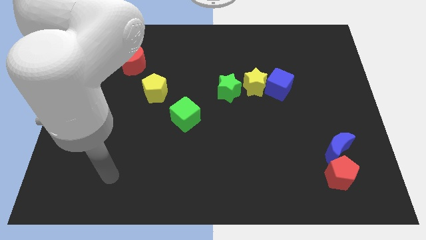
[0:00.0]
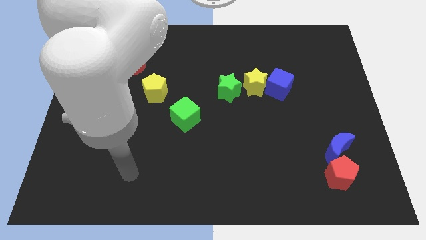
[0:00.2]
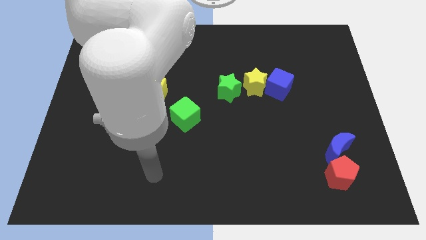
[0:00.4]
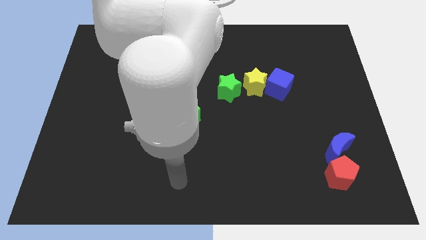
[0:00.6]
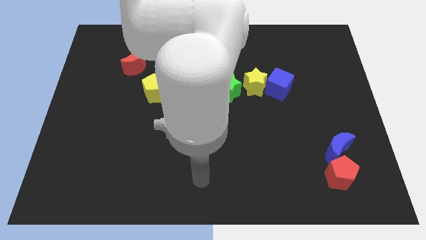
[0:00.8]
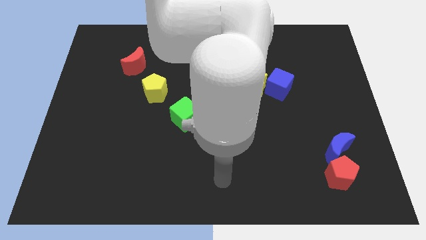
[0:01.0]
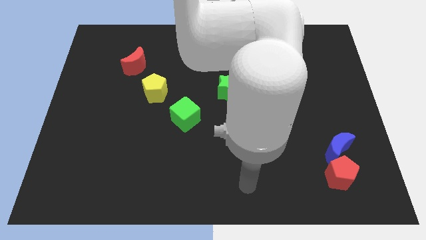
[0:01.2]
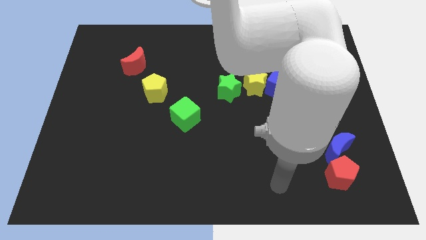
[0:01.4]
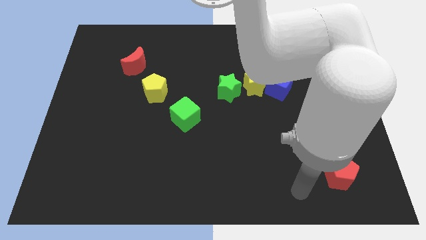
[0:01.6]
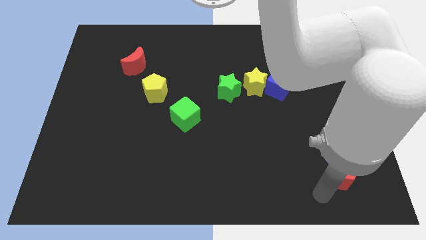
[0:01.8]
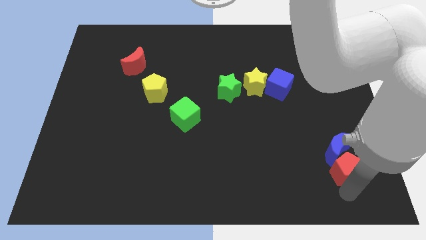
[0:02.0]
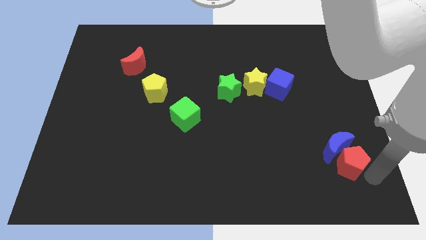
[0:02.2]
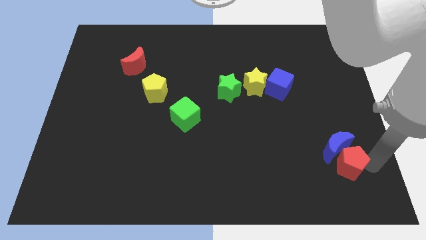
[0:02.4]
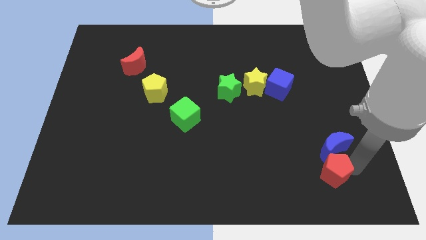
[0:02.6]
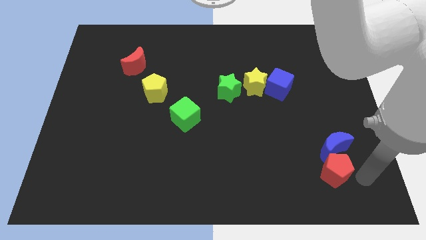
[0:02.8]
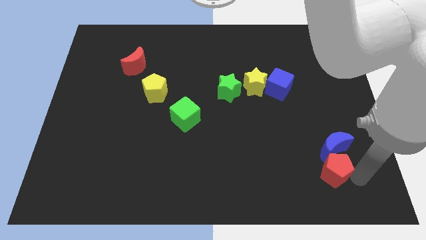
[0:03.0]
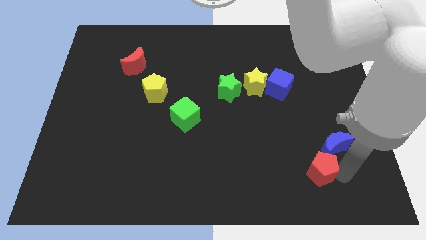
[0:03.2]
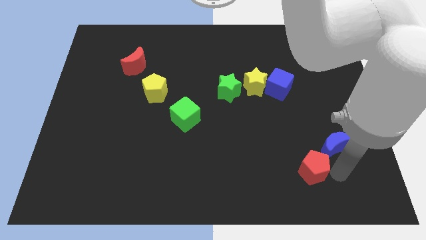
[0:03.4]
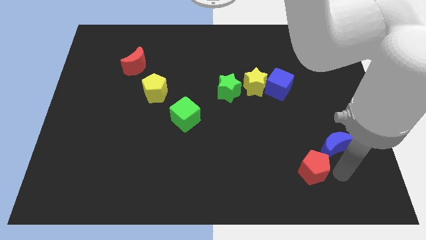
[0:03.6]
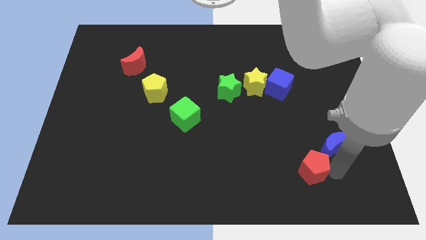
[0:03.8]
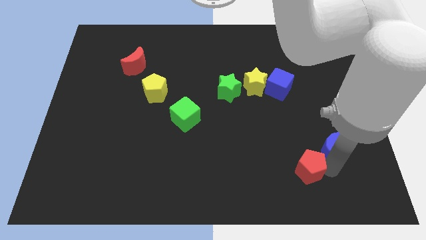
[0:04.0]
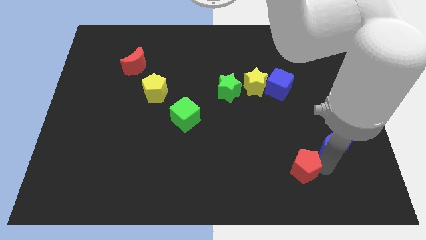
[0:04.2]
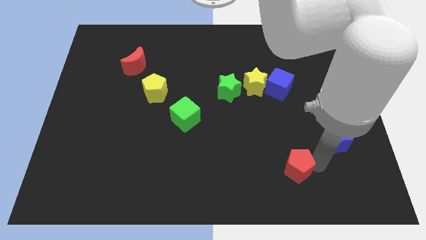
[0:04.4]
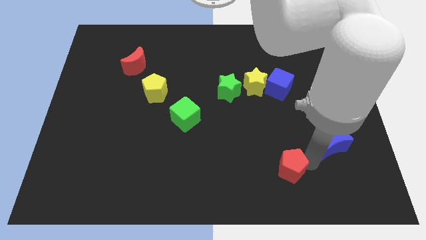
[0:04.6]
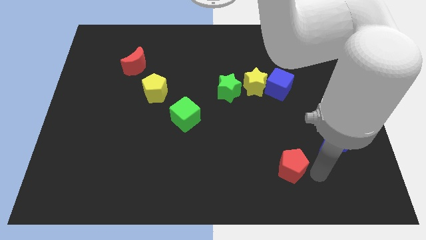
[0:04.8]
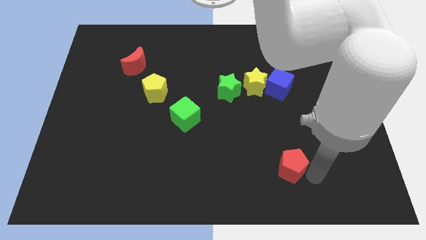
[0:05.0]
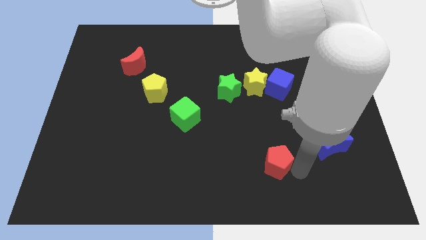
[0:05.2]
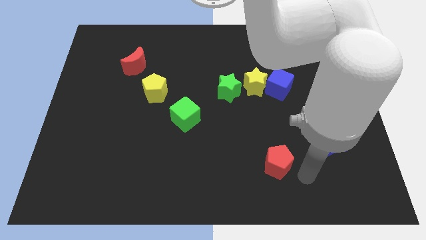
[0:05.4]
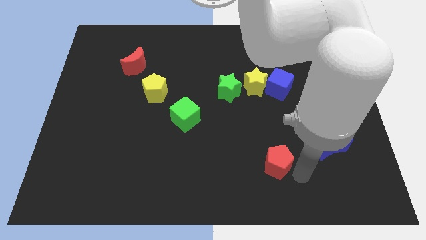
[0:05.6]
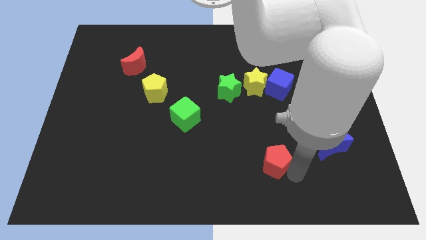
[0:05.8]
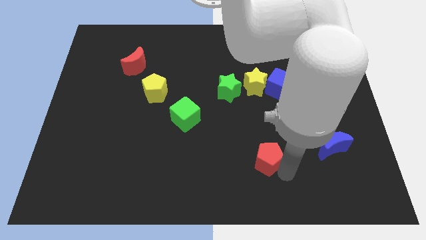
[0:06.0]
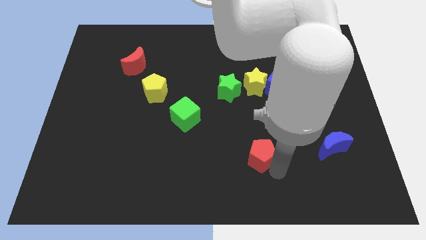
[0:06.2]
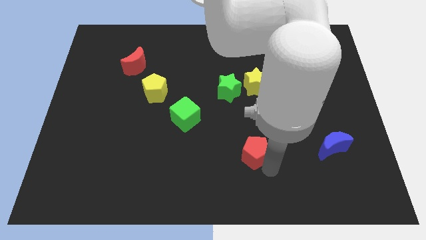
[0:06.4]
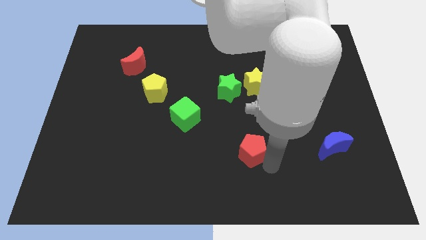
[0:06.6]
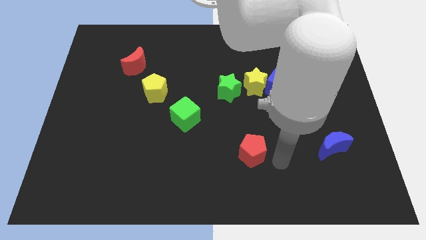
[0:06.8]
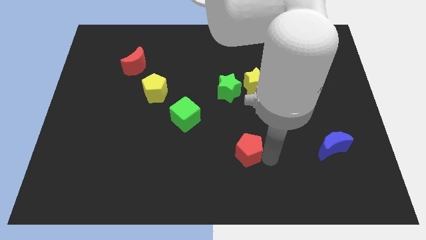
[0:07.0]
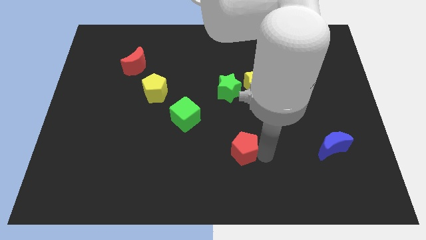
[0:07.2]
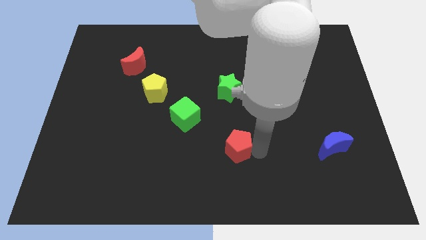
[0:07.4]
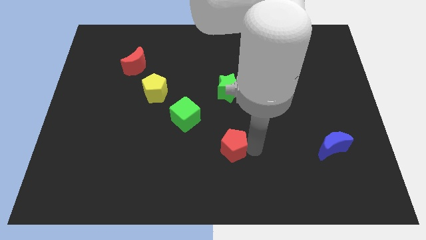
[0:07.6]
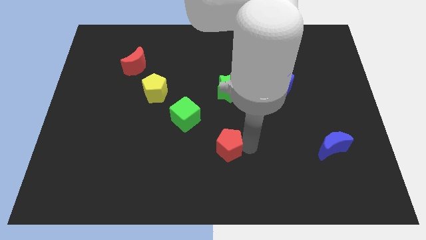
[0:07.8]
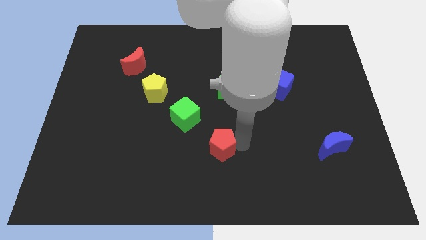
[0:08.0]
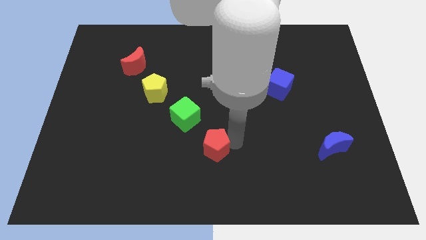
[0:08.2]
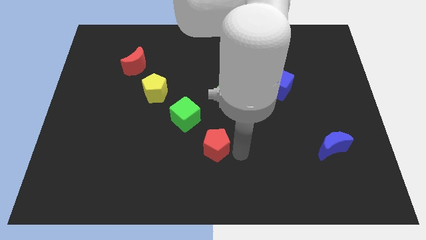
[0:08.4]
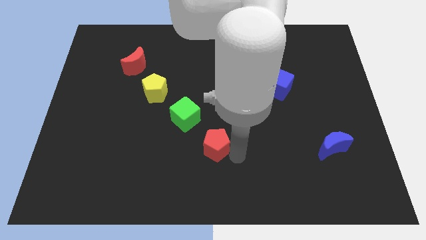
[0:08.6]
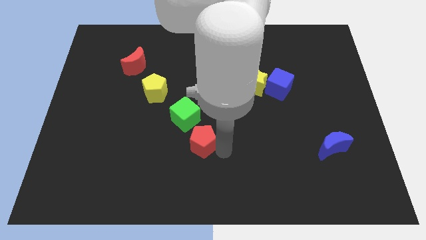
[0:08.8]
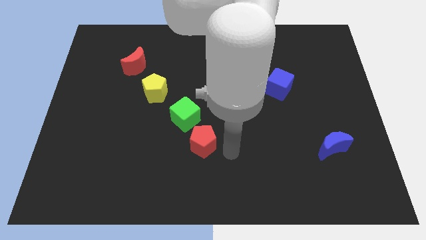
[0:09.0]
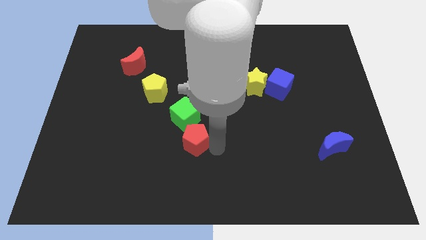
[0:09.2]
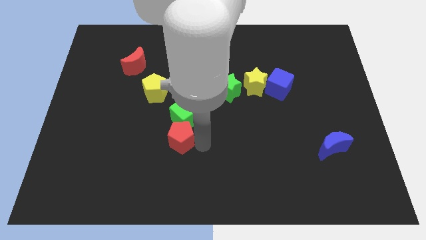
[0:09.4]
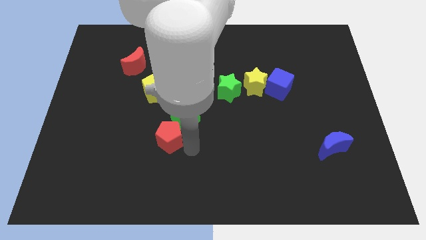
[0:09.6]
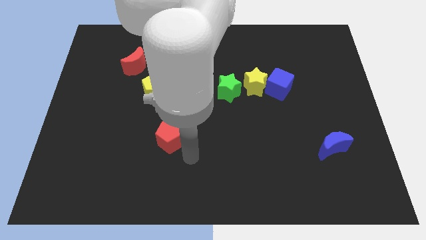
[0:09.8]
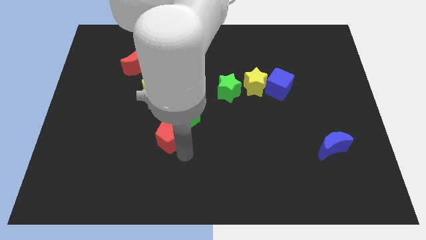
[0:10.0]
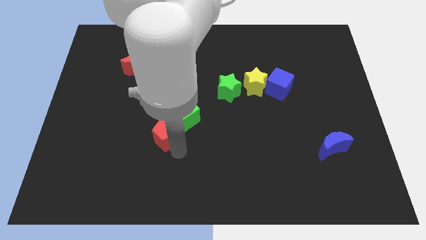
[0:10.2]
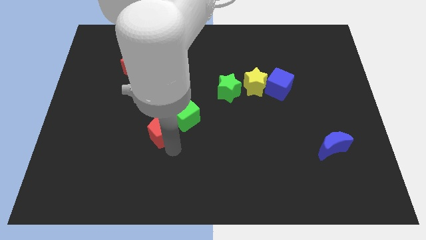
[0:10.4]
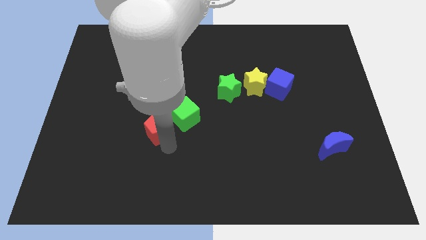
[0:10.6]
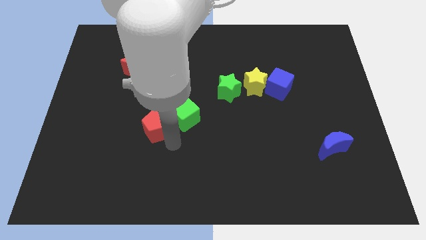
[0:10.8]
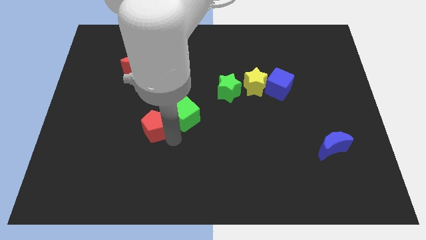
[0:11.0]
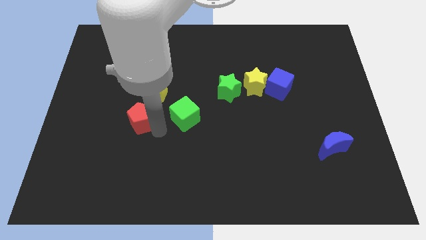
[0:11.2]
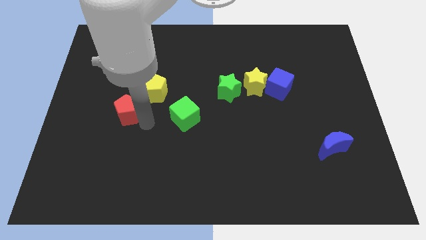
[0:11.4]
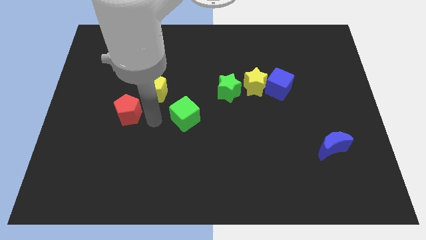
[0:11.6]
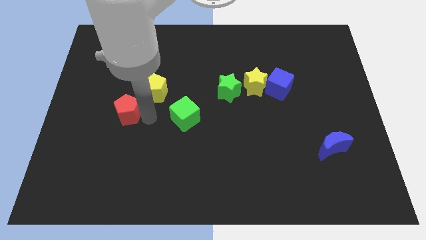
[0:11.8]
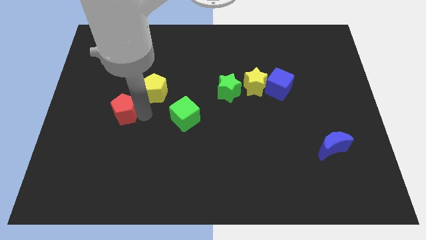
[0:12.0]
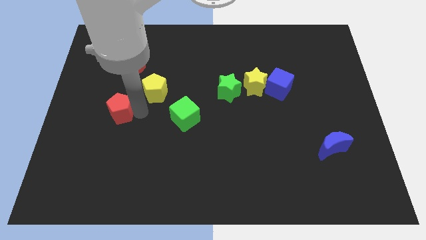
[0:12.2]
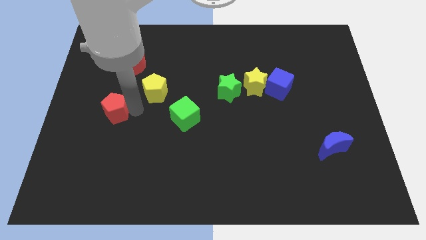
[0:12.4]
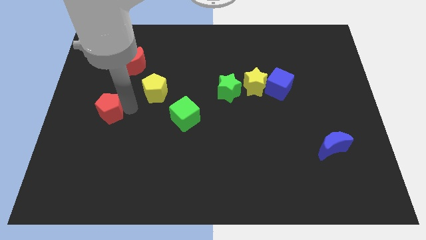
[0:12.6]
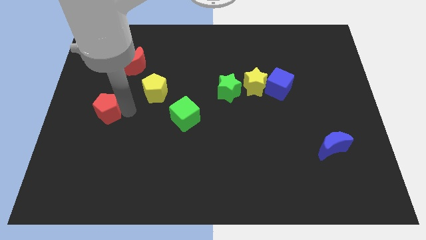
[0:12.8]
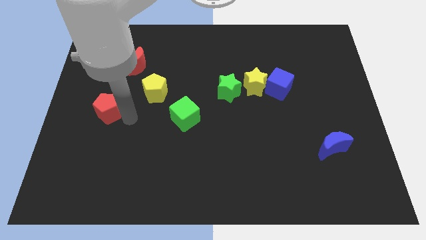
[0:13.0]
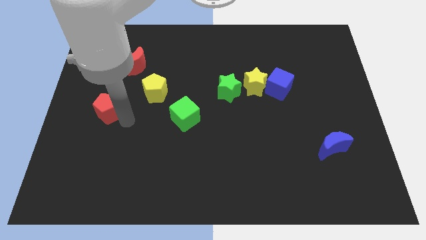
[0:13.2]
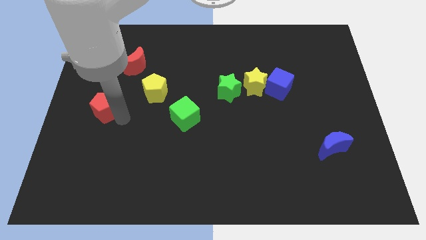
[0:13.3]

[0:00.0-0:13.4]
put the red pentagon to the left side
